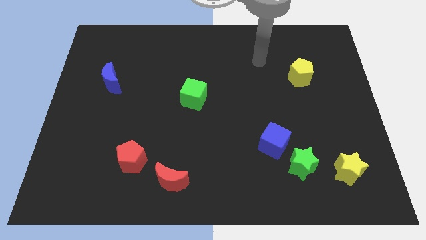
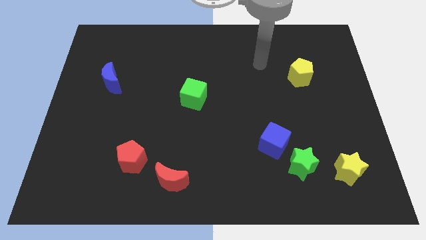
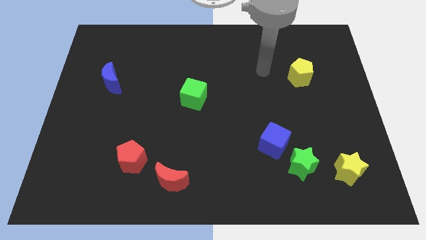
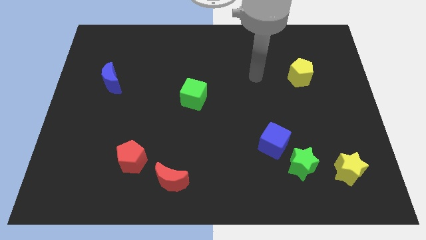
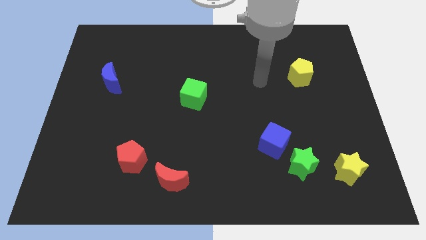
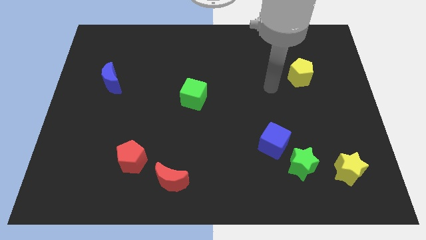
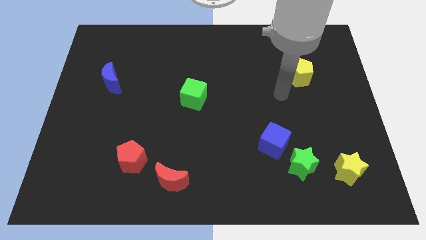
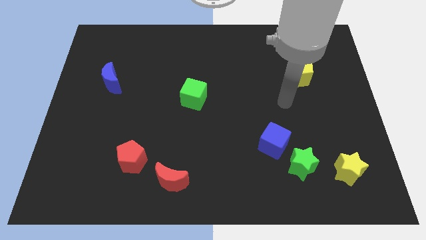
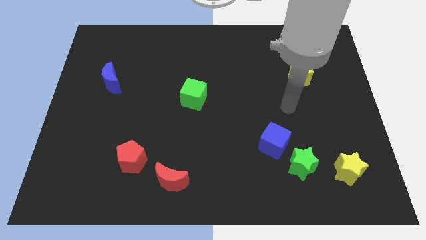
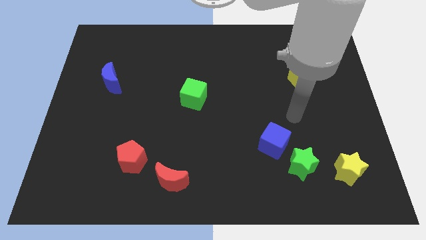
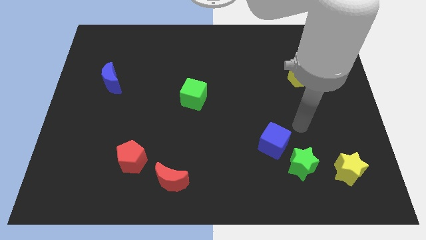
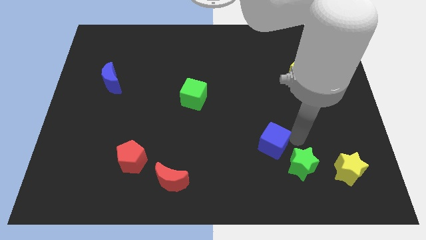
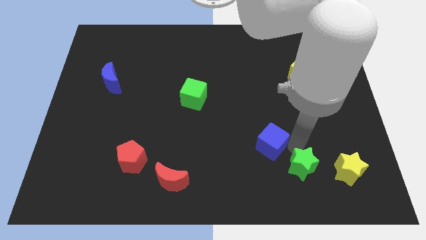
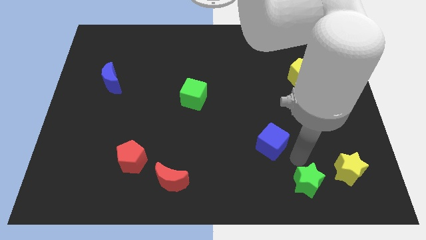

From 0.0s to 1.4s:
move the blue cube away from the green star

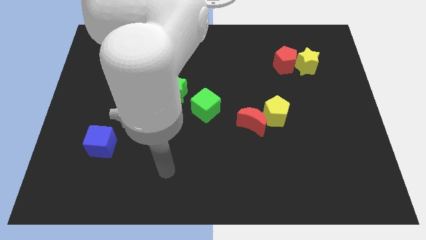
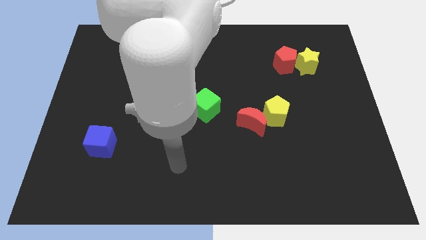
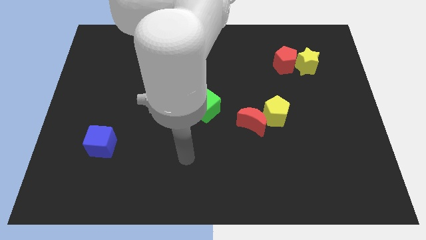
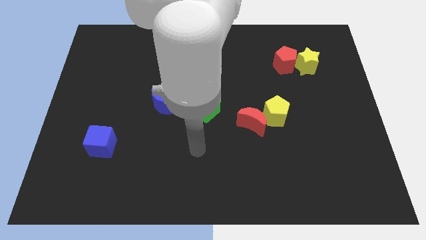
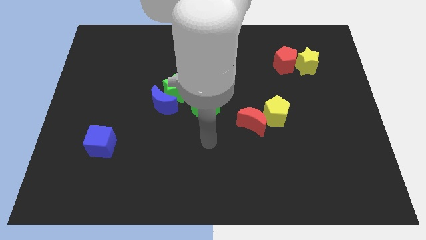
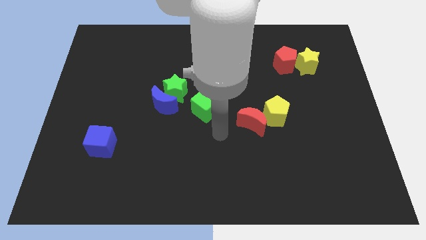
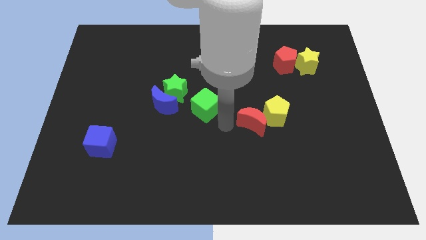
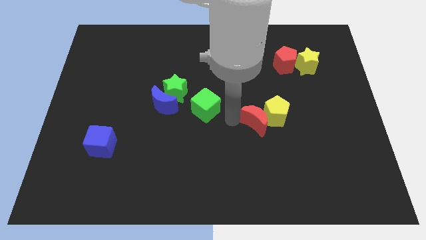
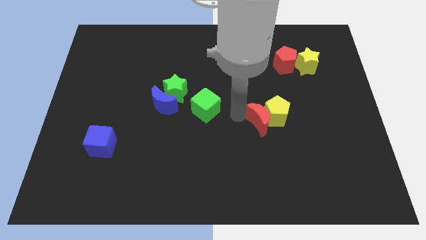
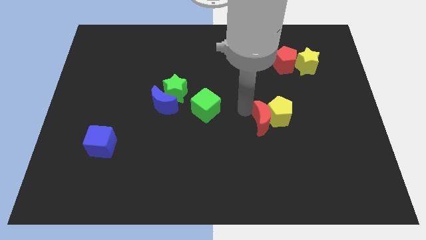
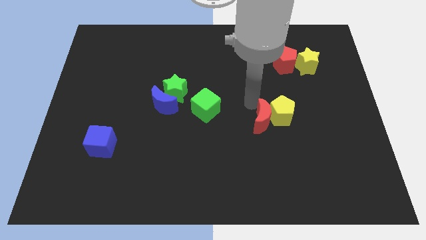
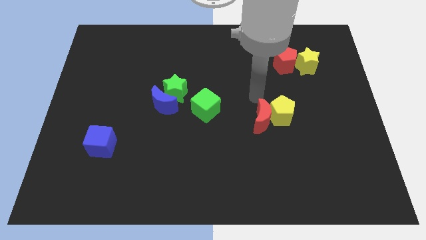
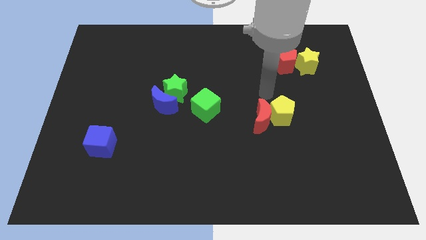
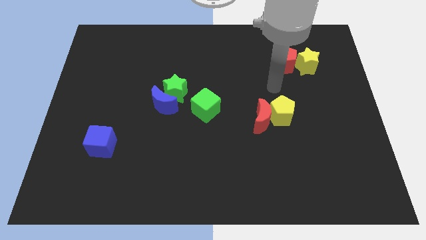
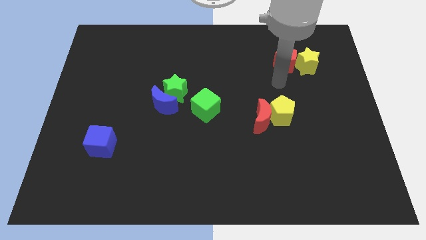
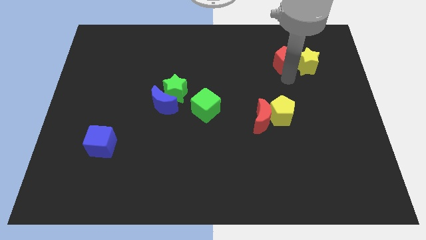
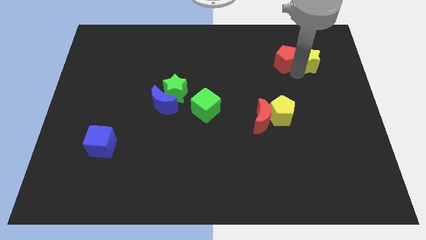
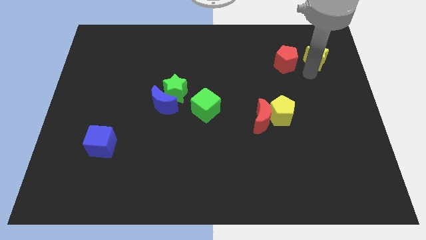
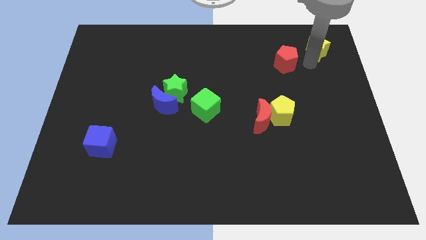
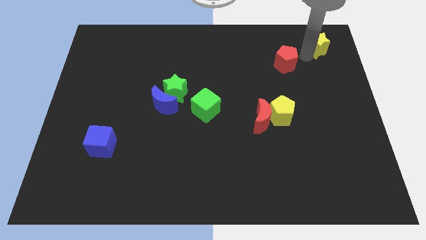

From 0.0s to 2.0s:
move the red pentagon away from the yellow star

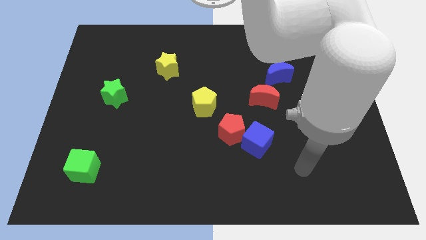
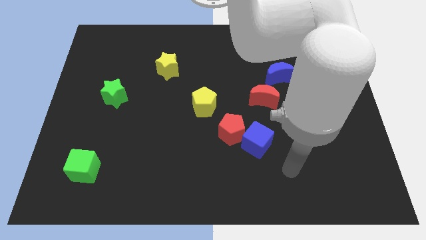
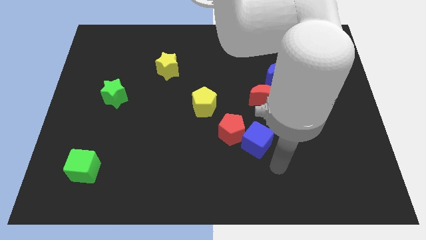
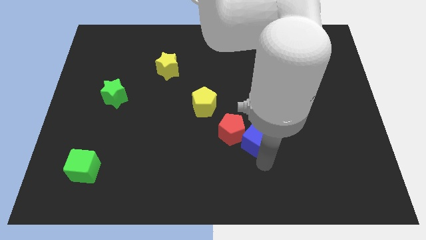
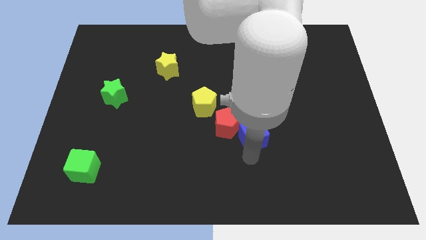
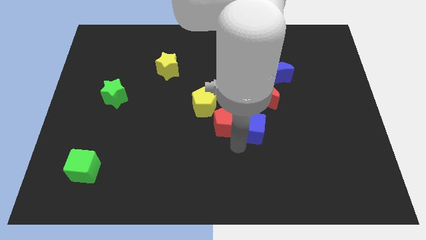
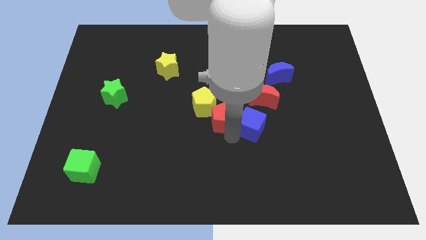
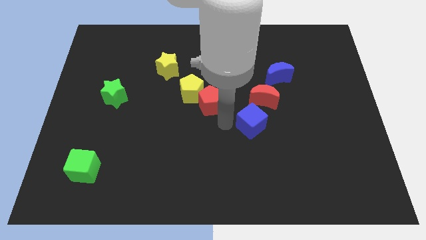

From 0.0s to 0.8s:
move the blue cube away from the red pentagon

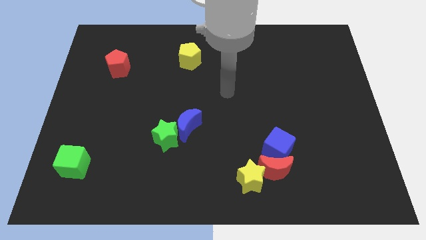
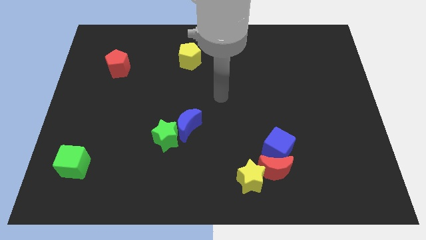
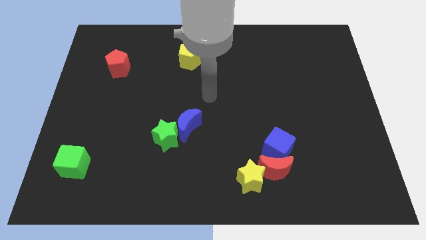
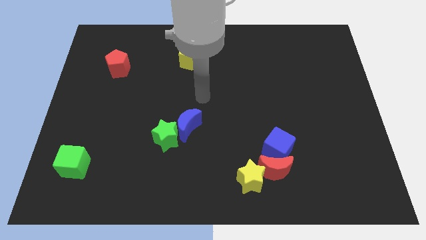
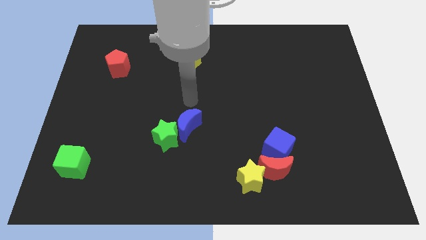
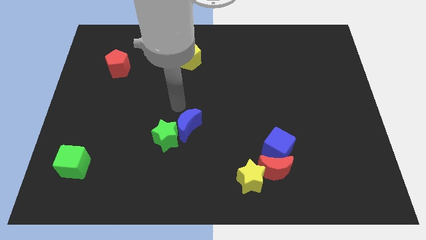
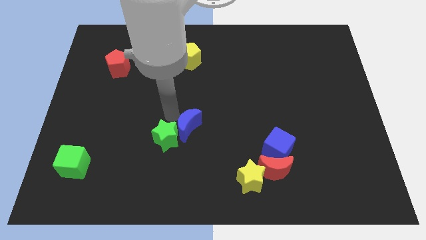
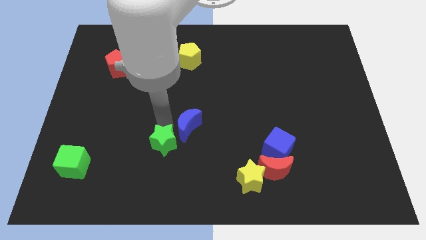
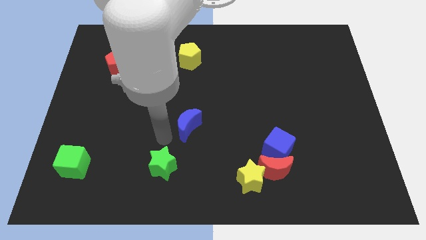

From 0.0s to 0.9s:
move the blue moon away from the green star

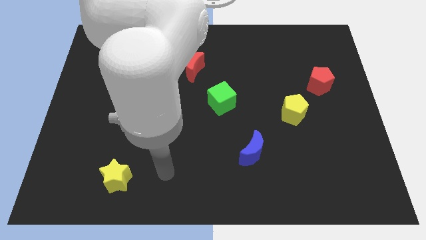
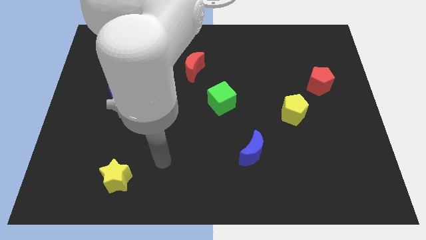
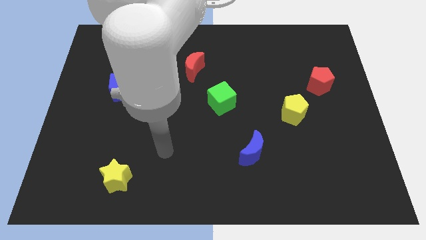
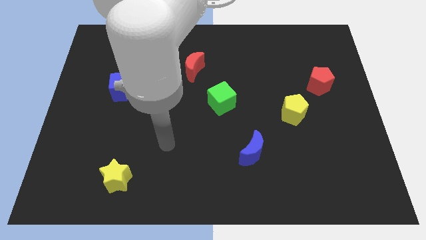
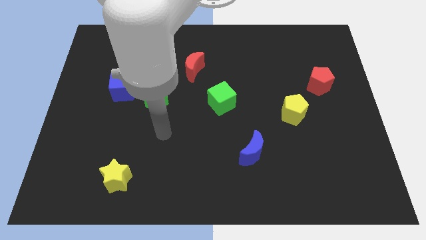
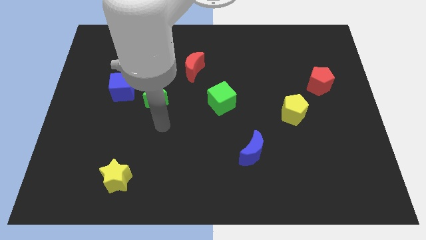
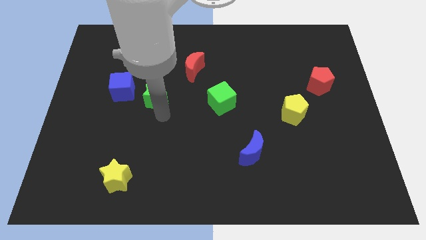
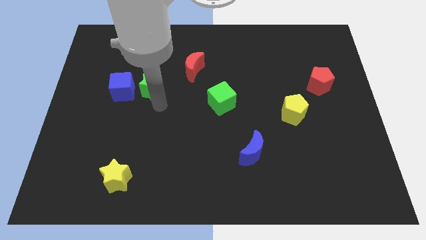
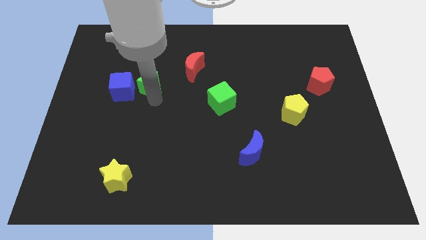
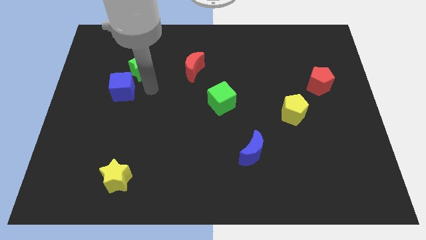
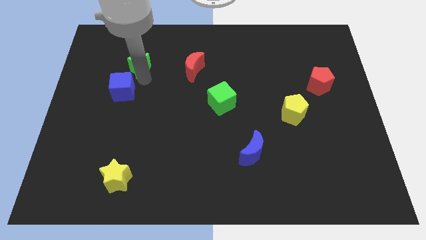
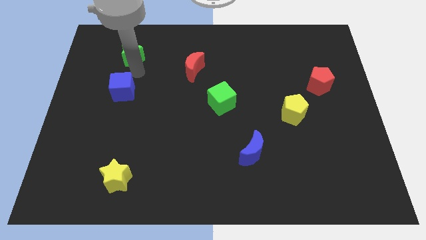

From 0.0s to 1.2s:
separate the blue cube from the green star

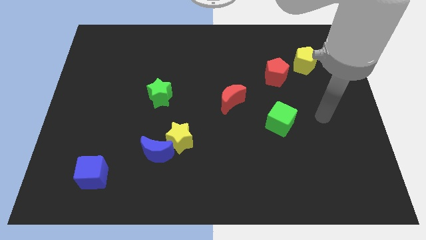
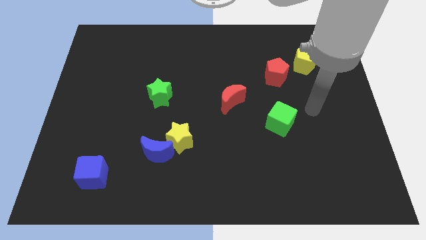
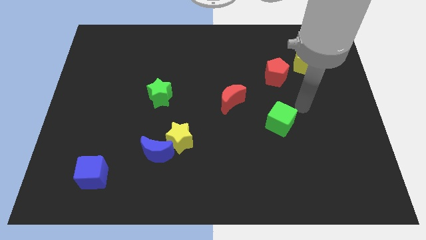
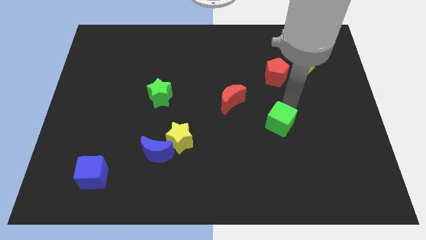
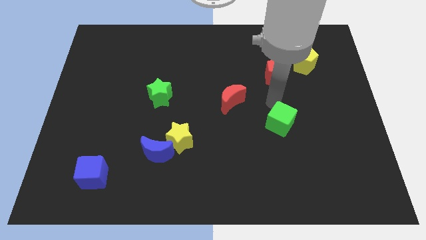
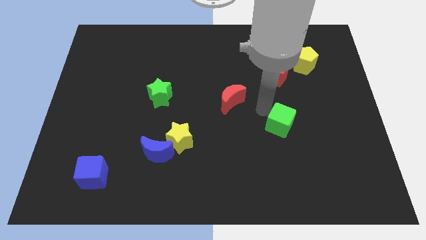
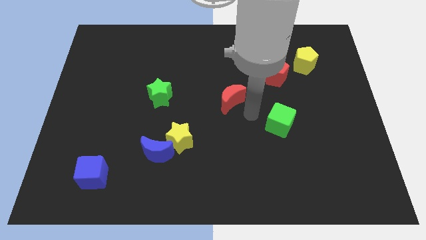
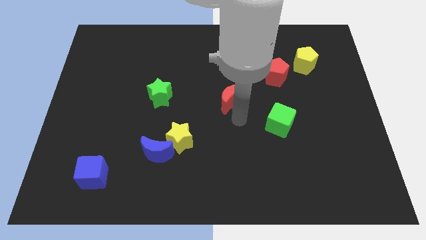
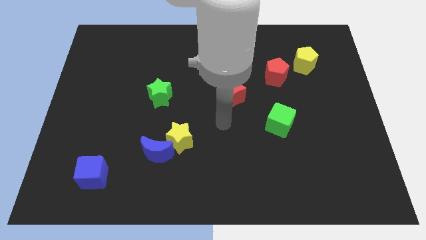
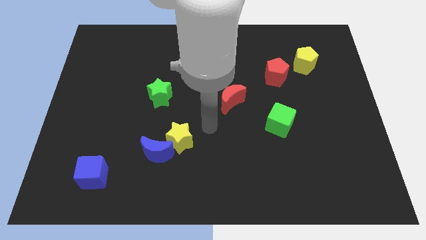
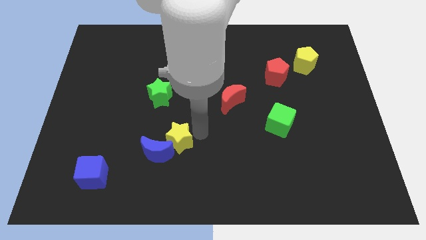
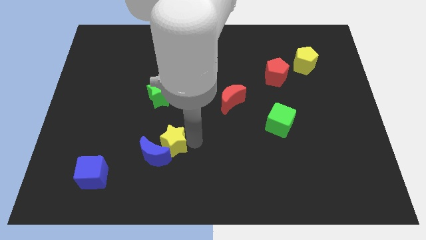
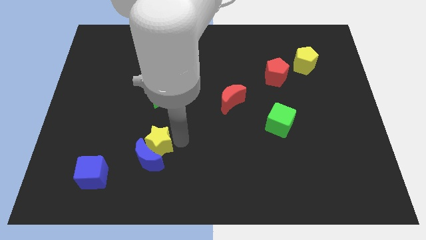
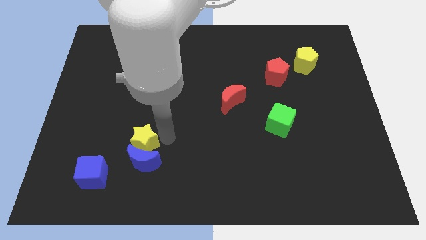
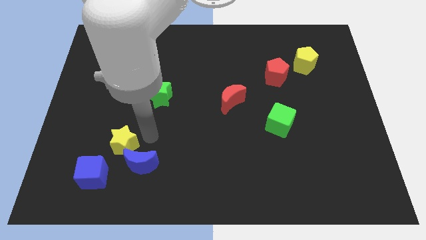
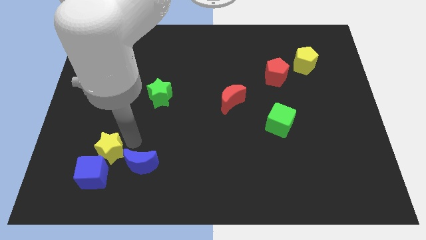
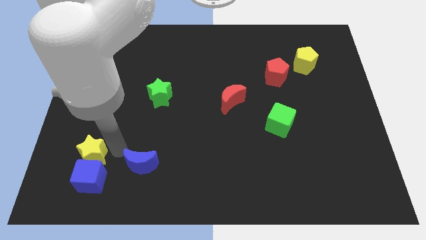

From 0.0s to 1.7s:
separate the blue moon from the yellow star

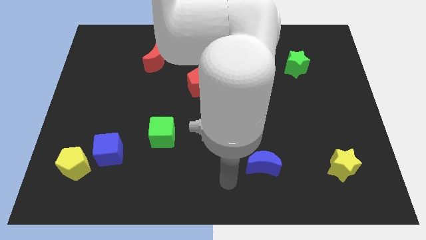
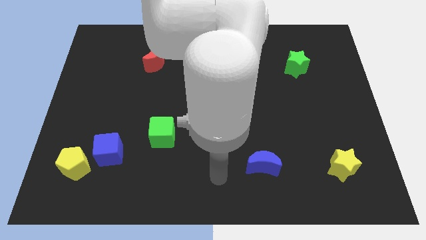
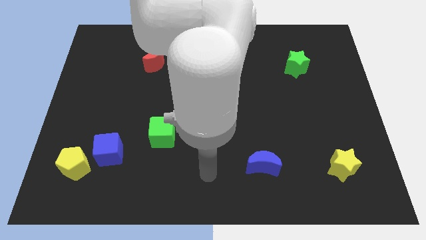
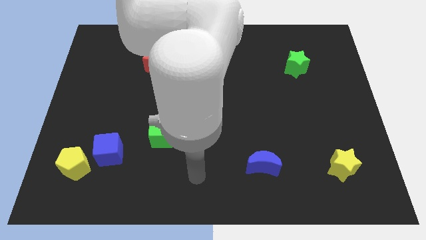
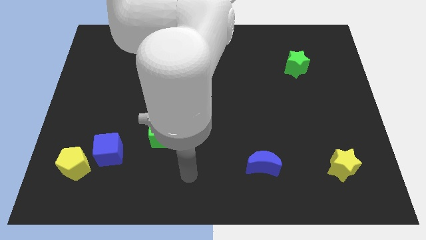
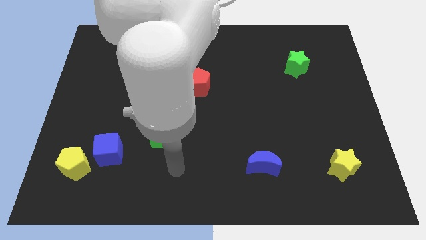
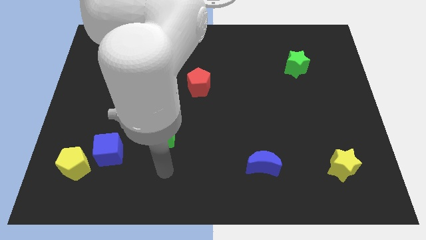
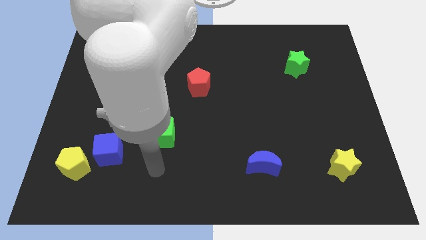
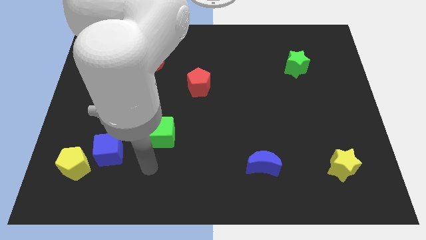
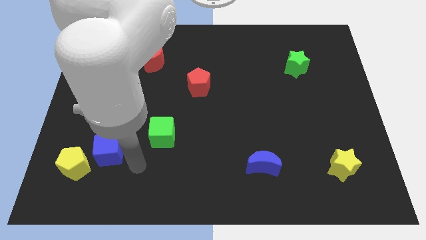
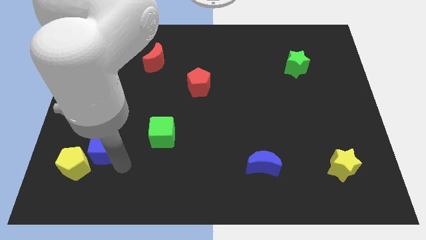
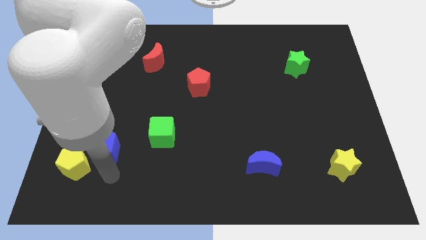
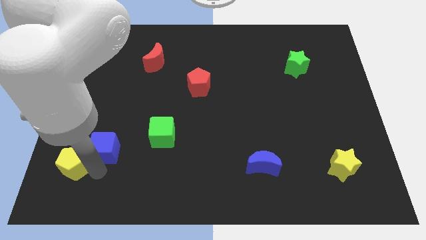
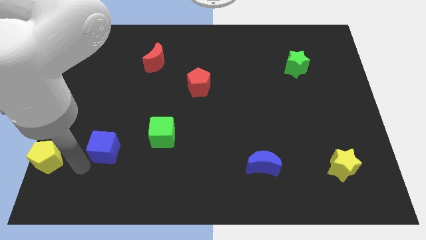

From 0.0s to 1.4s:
pull the blue cube apart from the yellow pentagon
